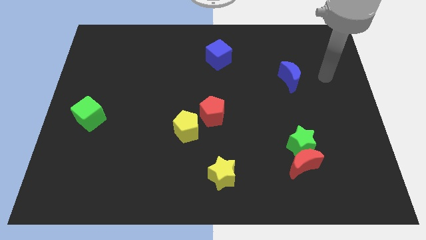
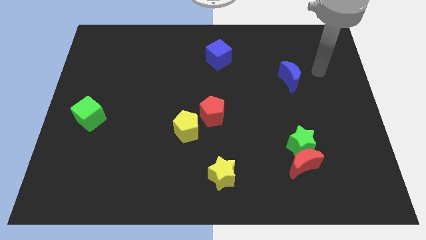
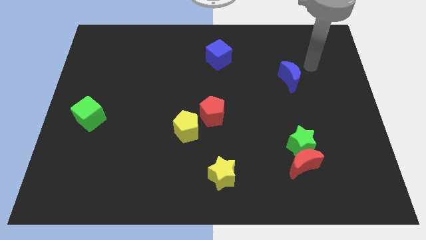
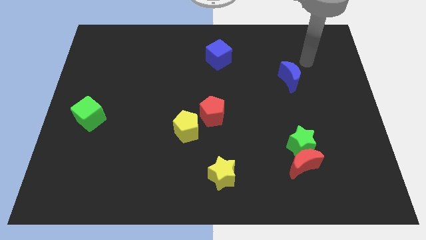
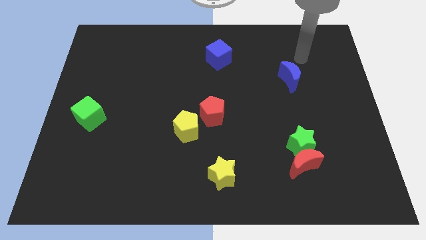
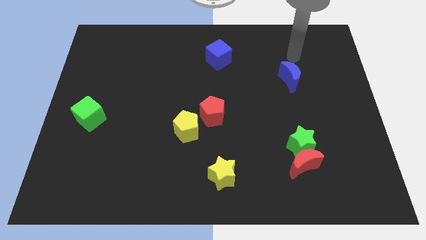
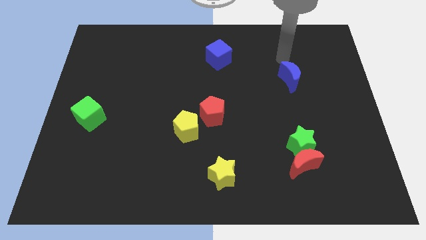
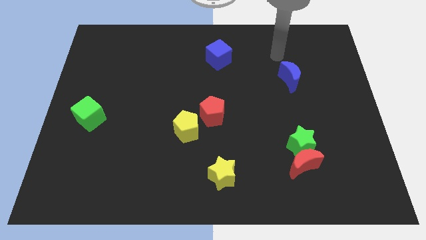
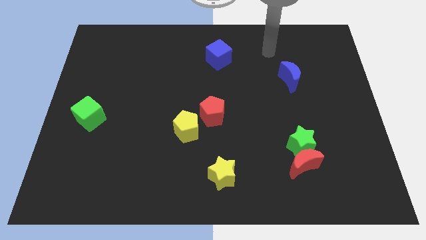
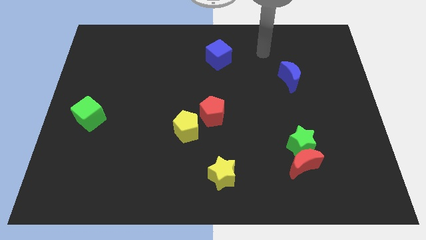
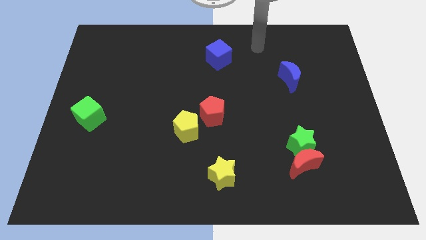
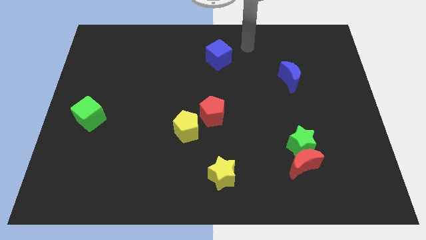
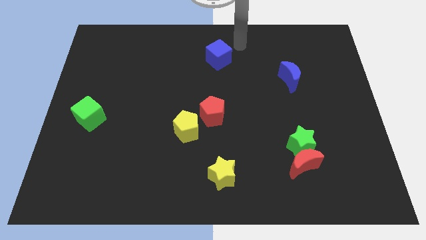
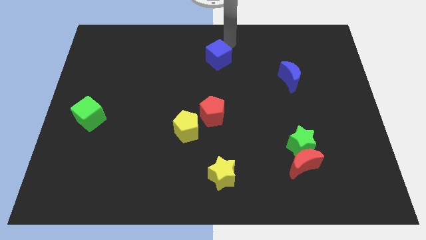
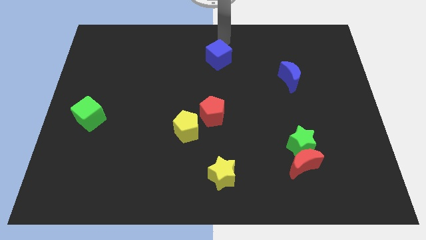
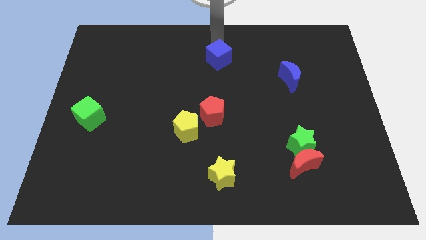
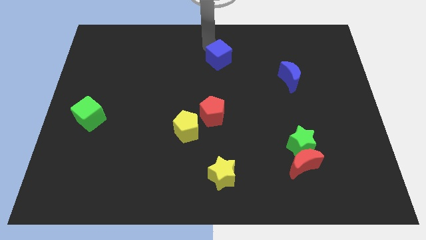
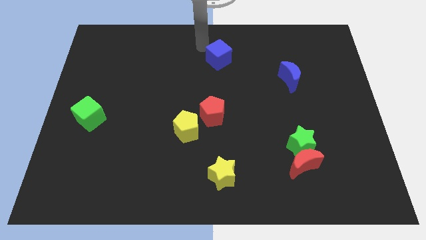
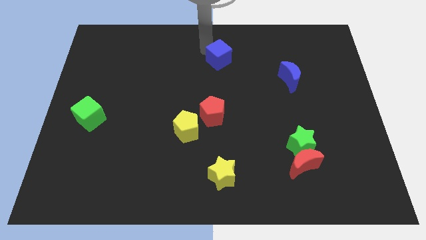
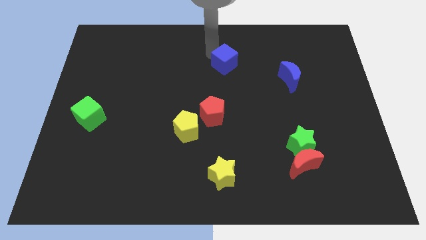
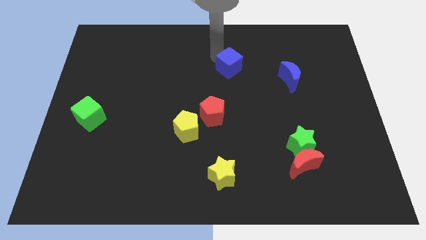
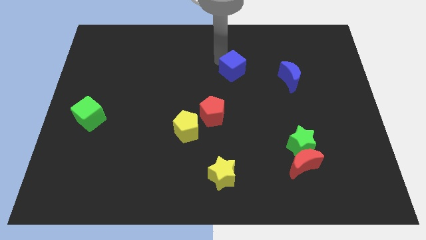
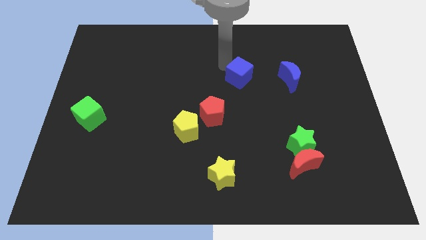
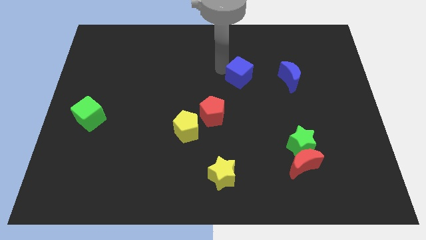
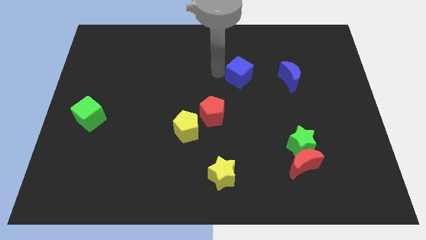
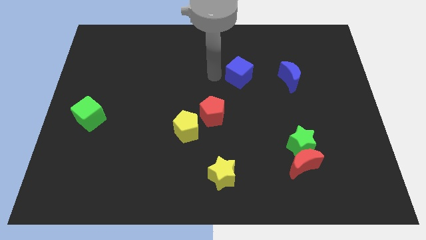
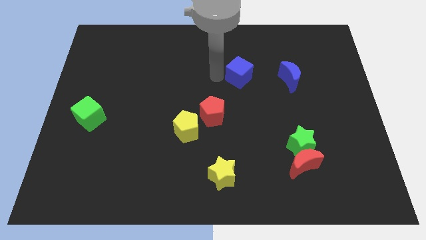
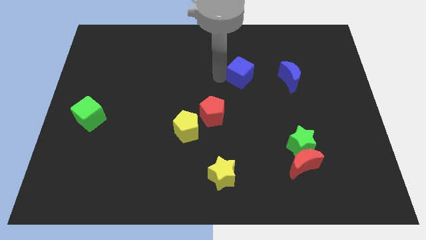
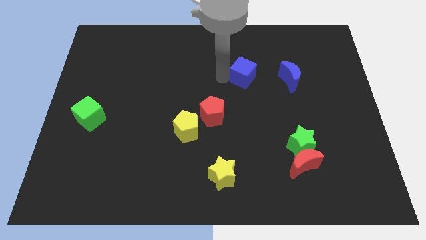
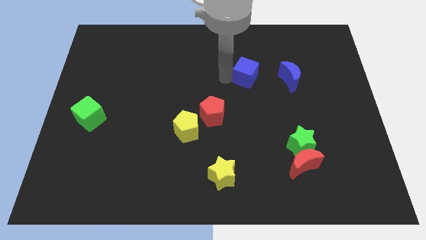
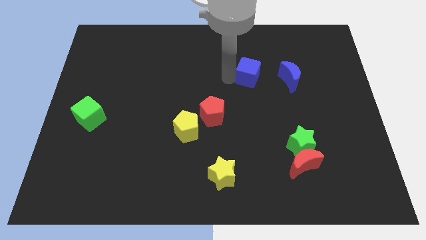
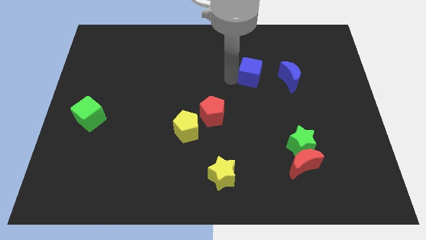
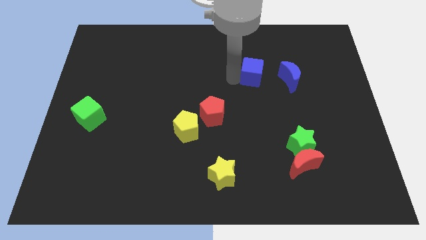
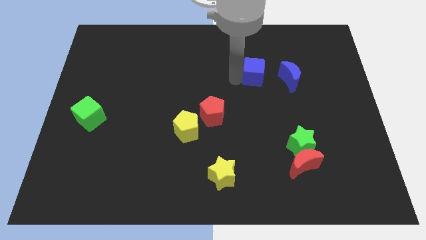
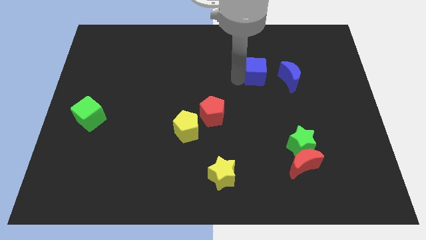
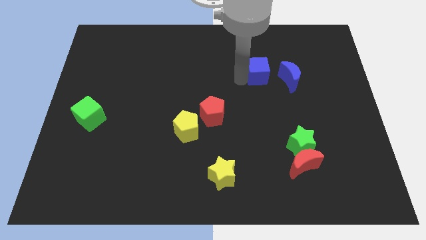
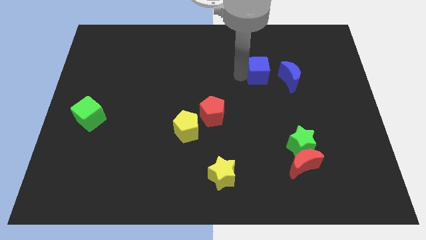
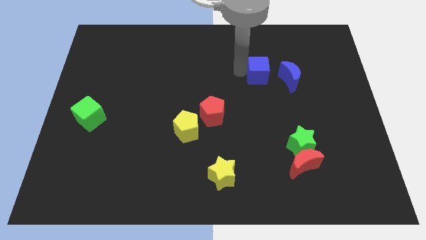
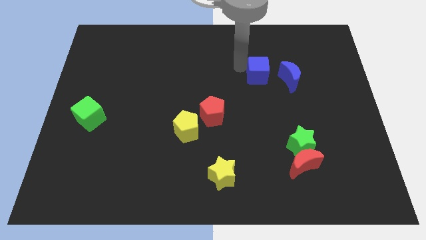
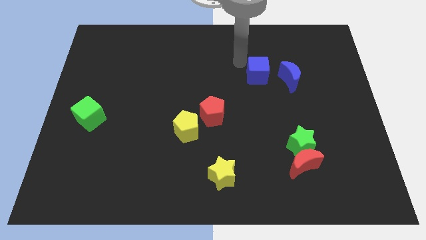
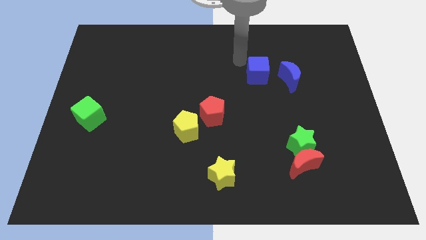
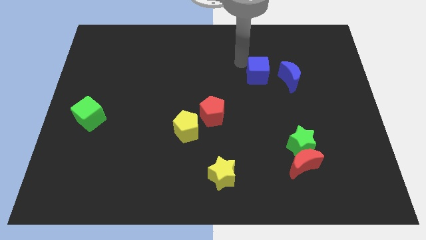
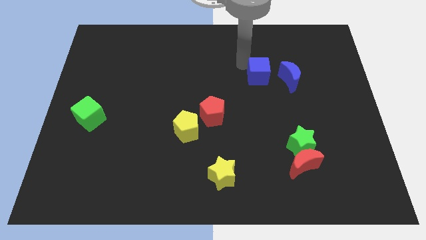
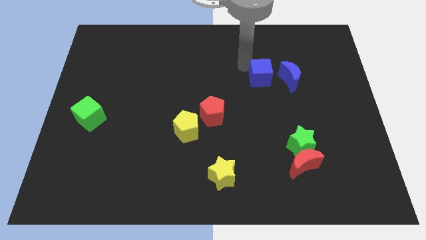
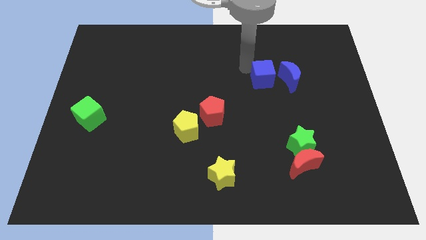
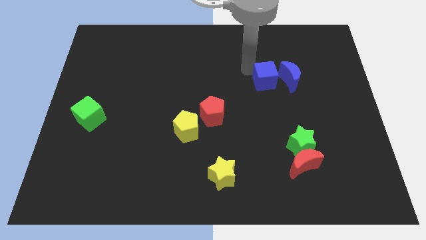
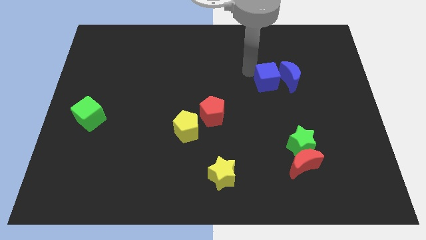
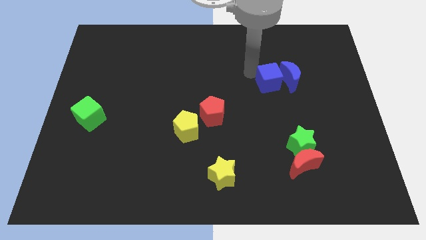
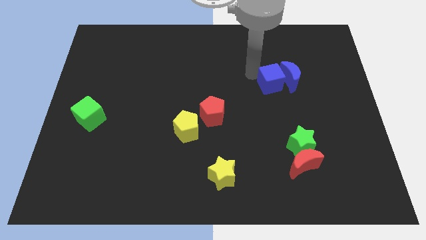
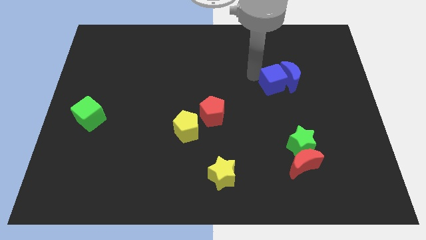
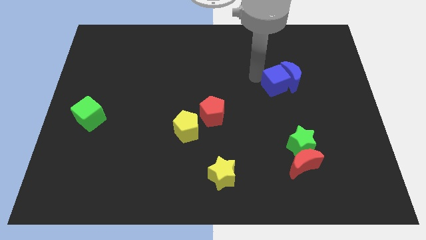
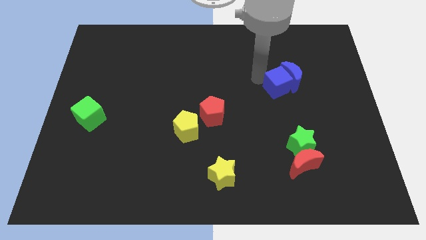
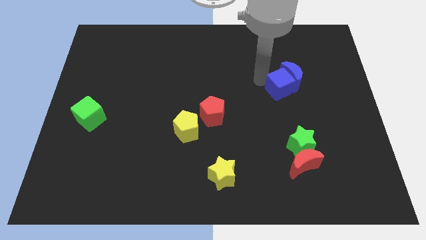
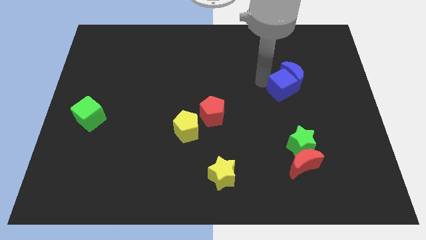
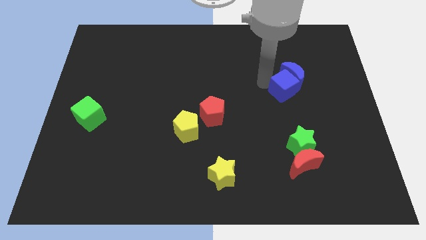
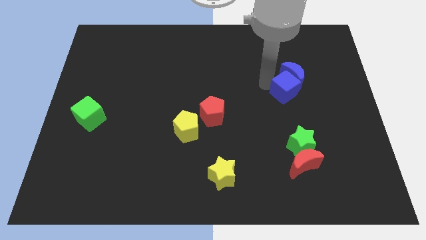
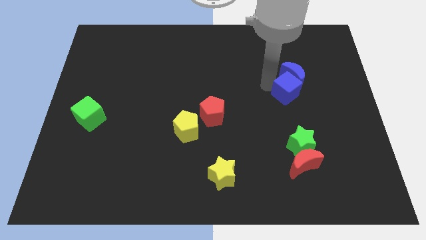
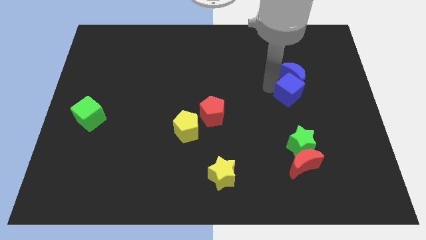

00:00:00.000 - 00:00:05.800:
put the blue cube diagonally down and to the right of the blue moon

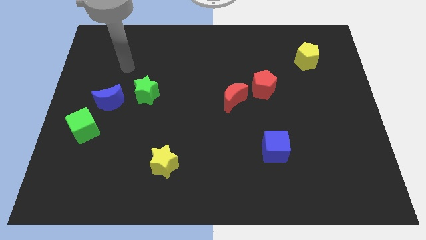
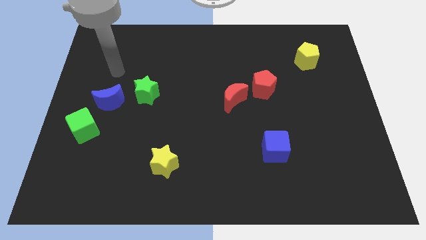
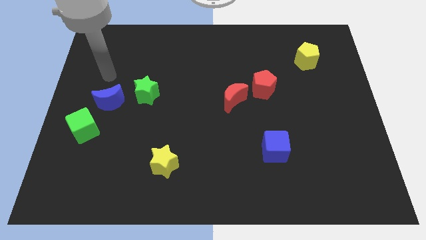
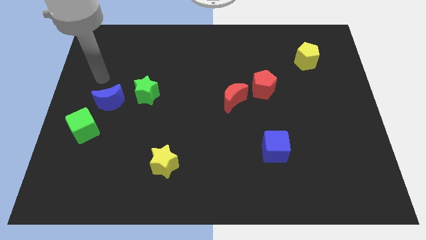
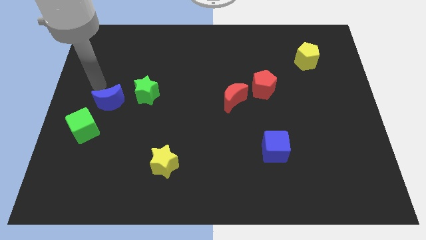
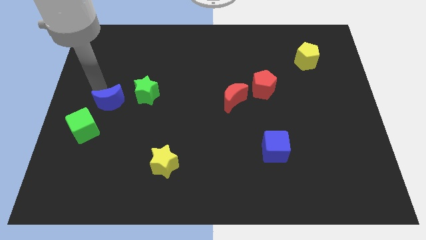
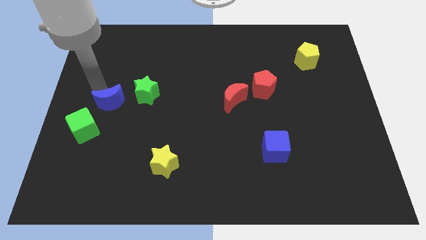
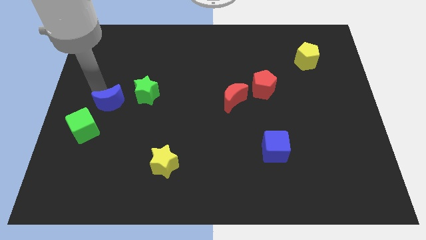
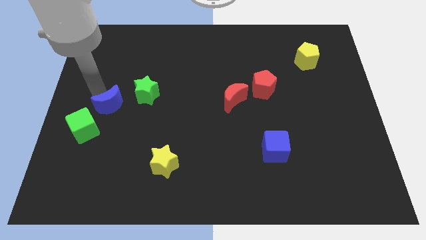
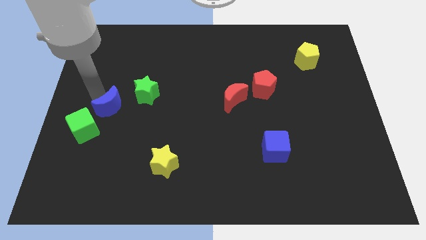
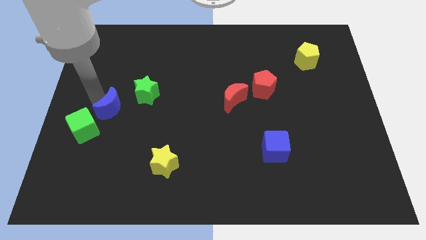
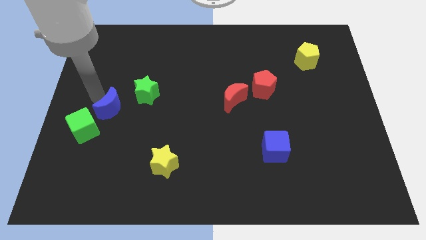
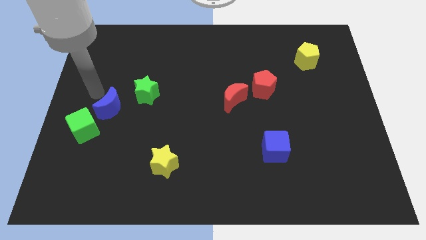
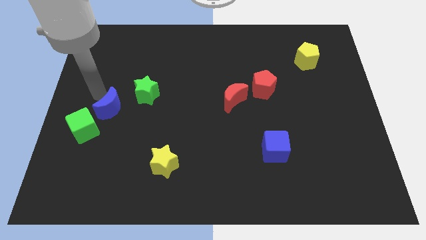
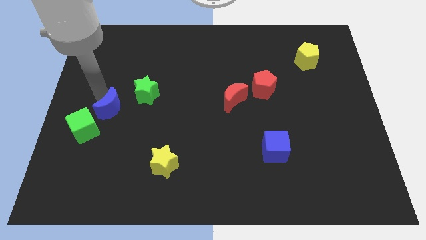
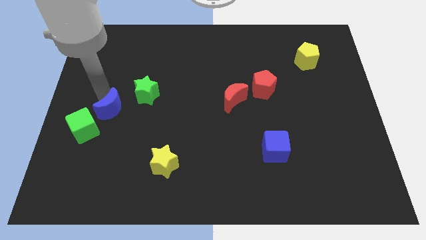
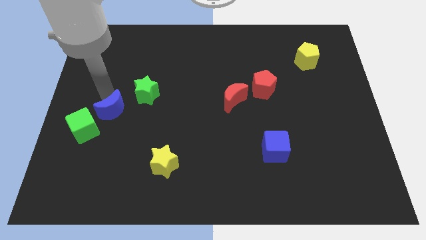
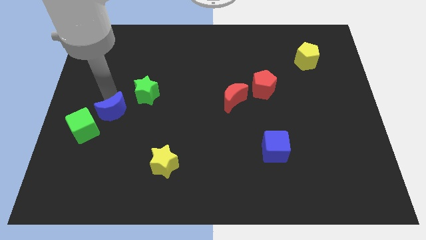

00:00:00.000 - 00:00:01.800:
move the blue moon just right of the green cube

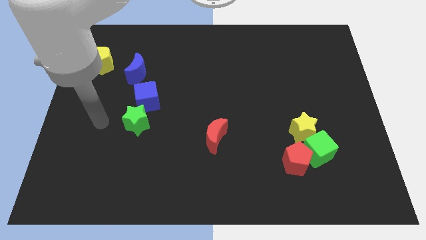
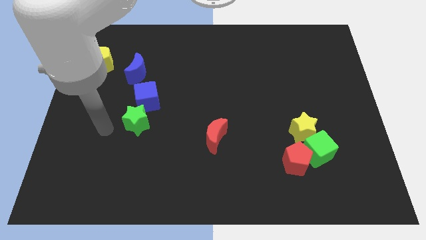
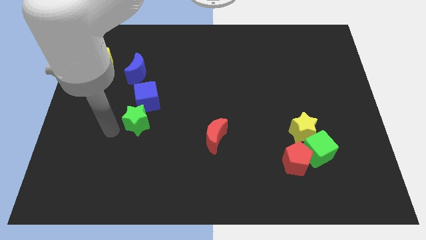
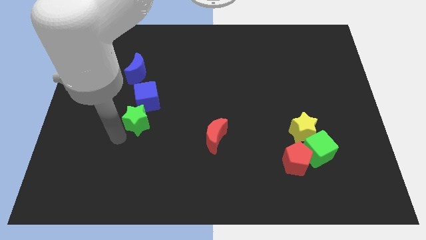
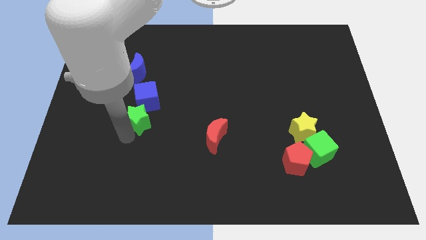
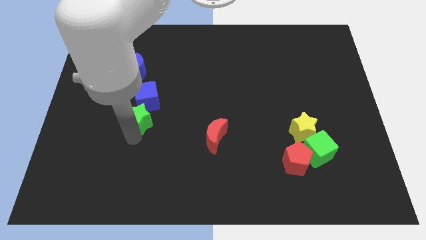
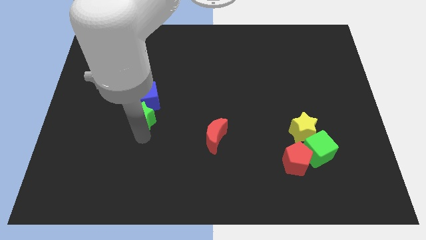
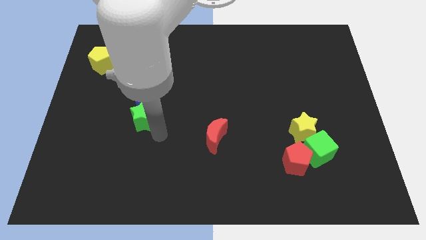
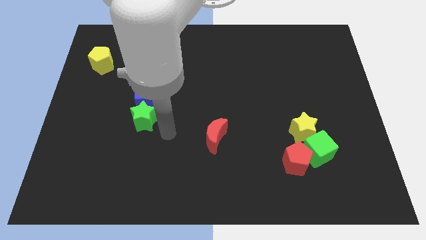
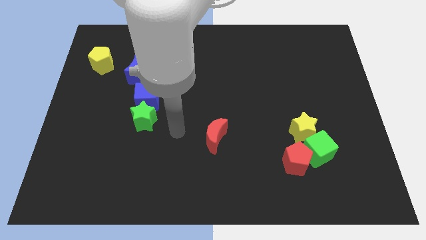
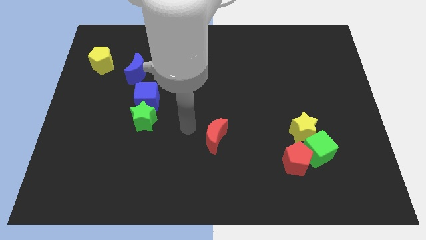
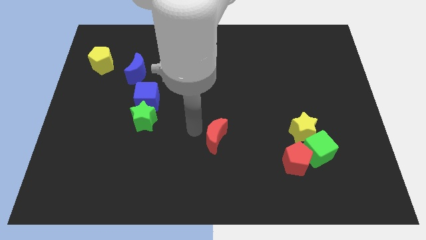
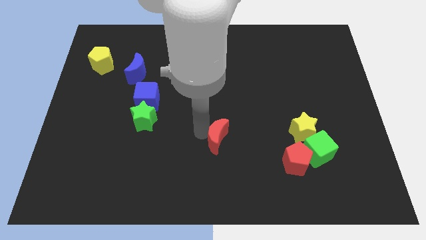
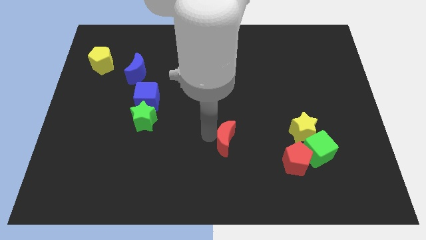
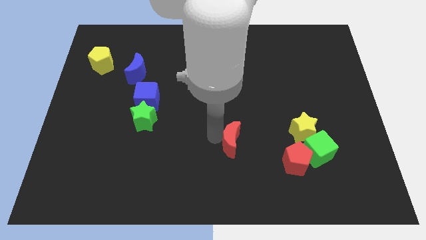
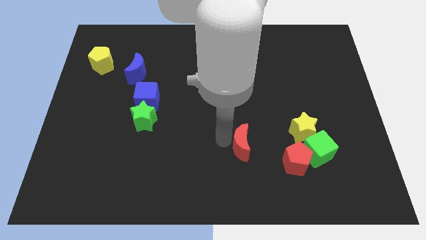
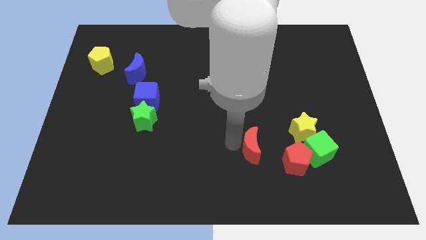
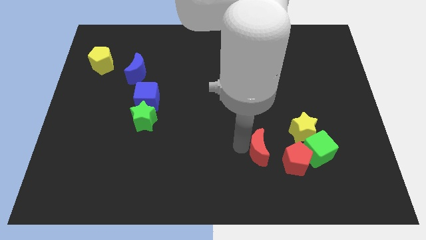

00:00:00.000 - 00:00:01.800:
put the red moon to the bottom left side of the yellow star
